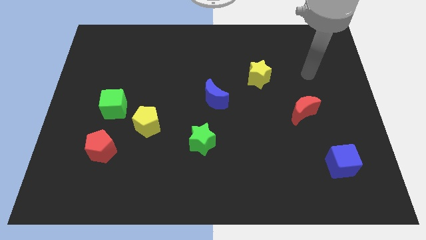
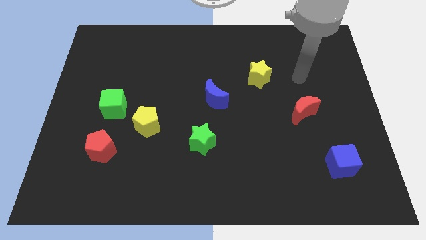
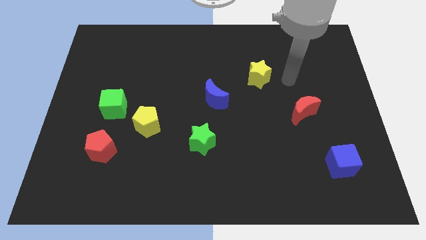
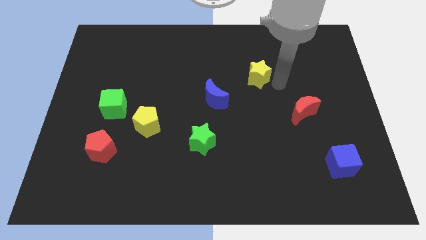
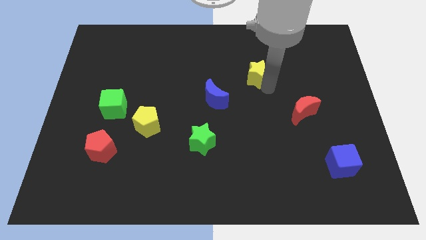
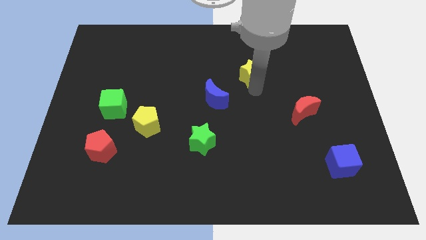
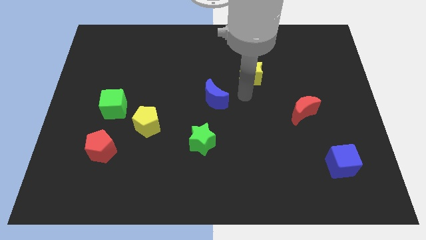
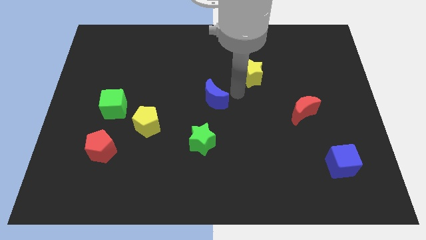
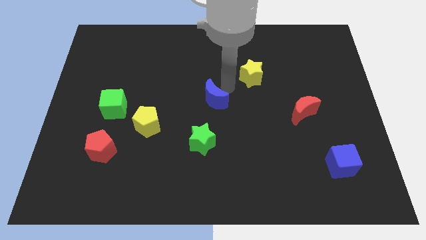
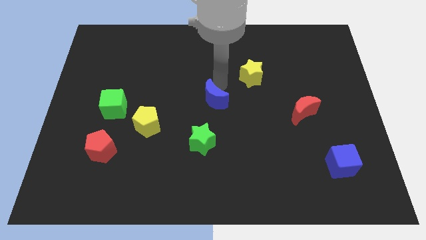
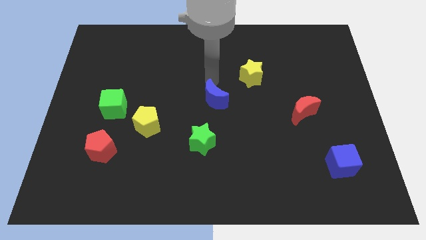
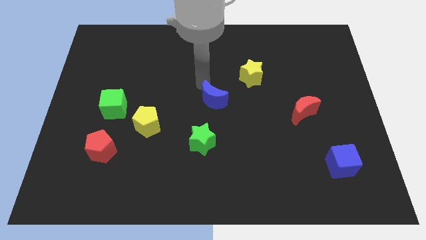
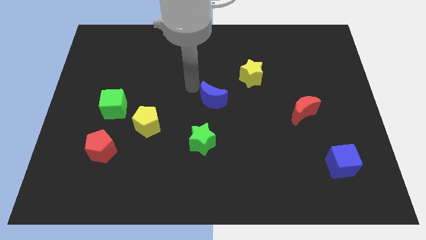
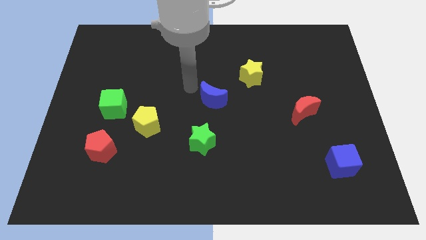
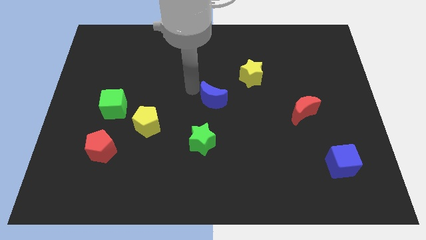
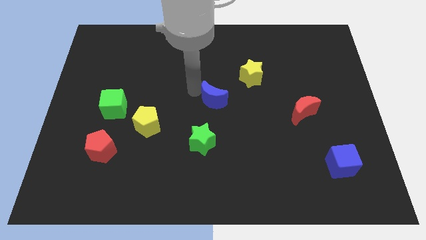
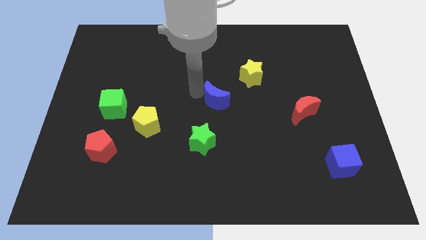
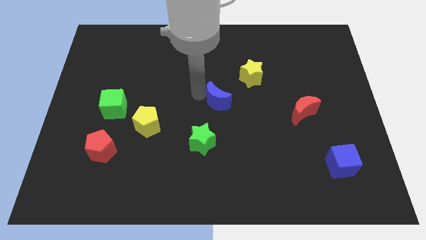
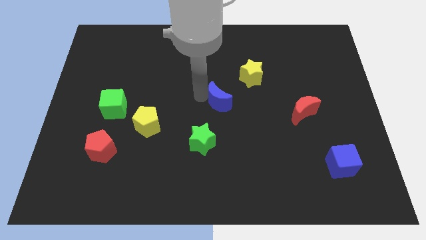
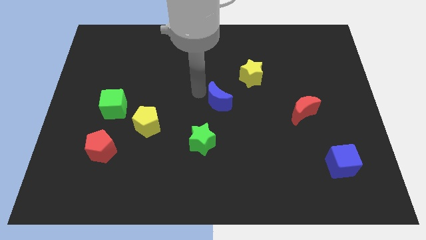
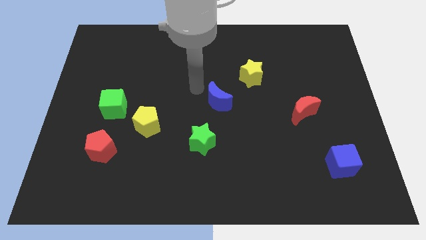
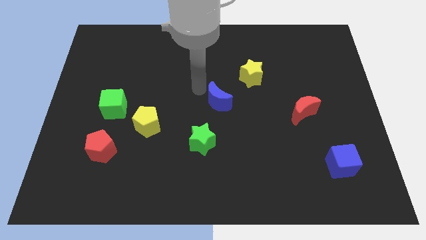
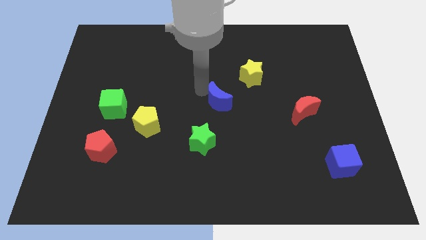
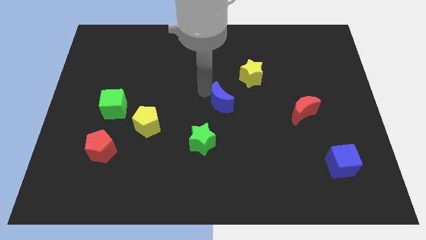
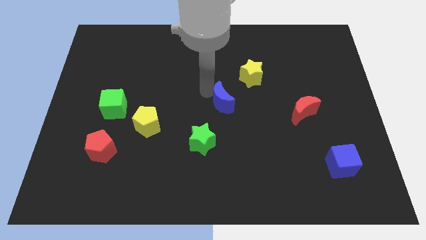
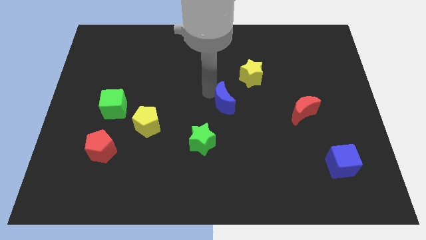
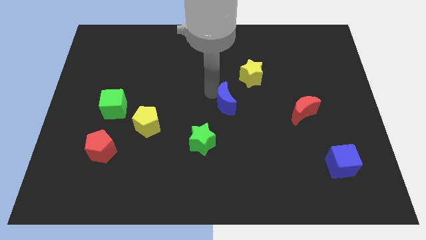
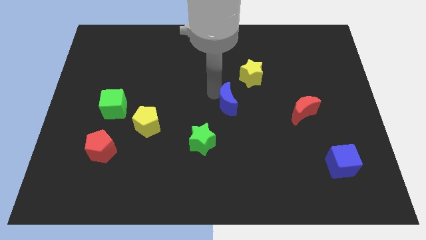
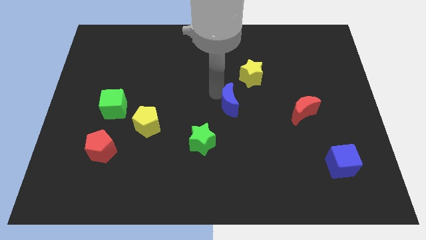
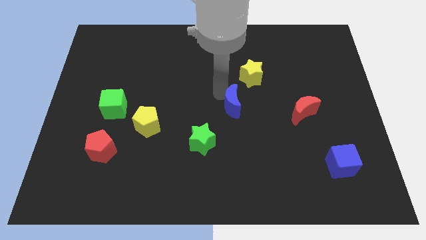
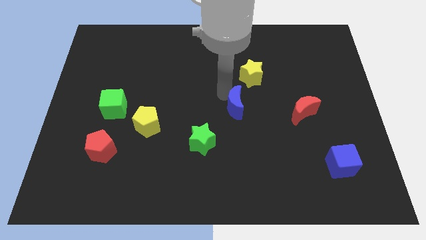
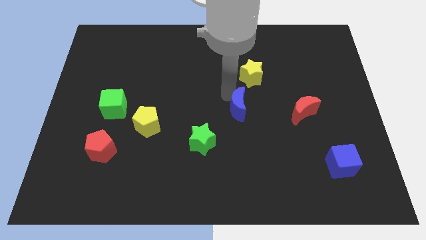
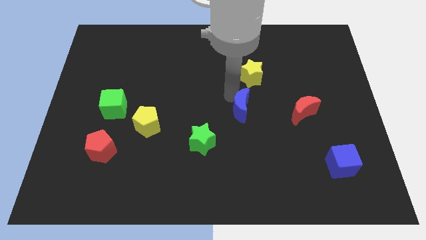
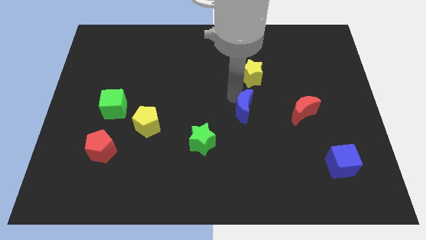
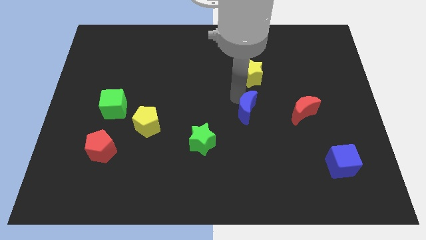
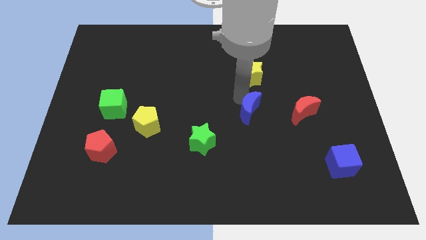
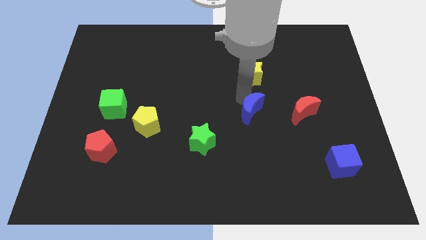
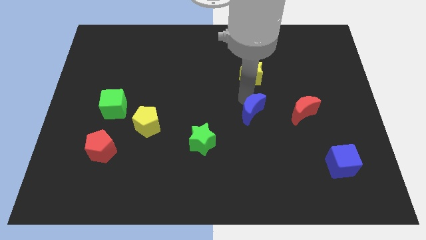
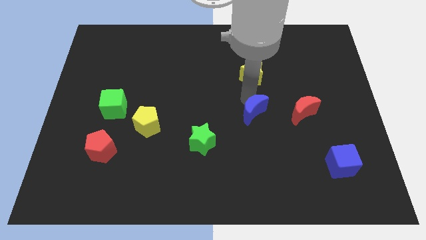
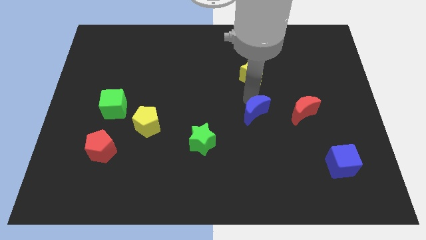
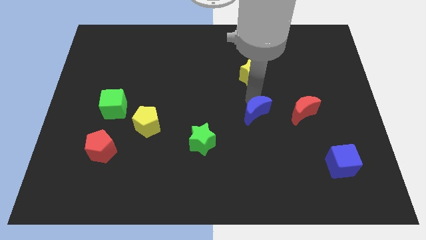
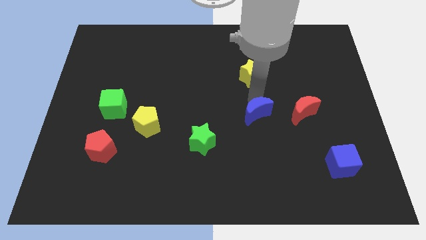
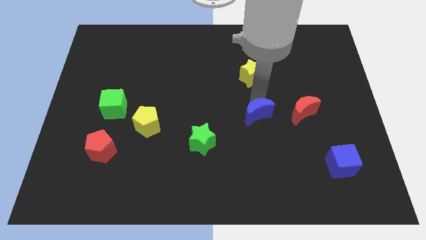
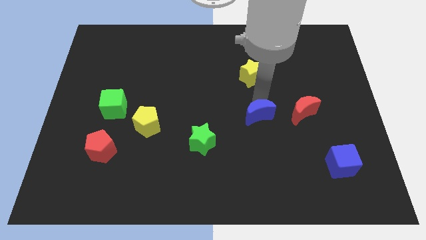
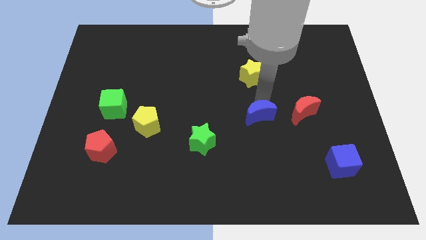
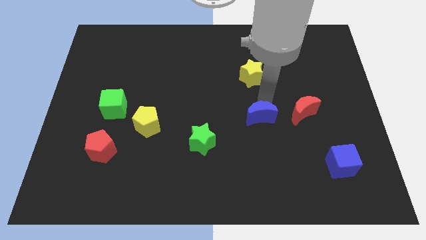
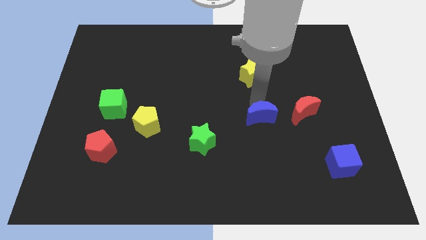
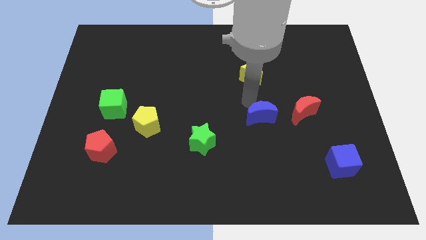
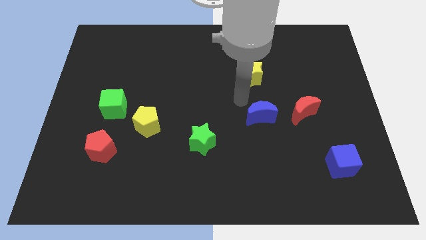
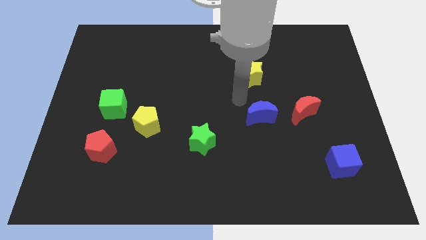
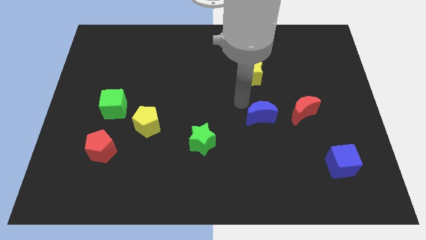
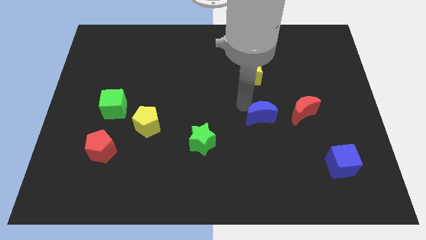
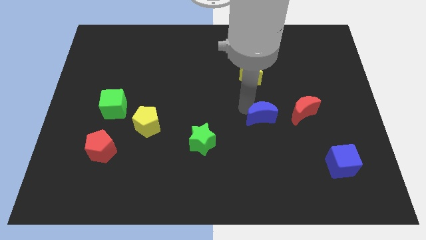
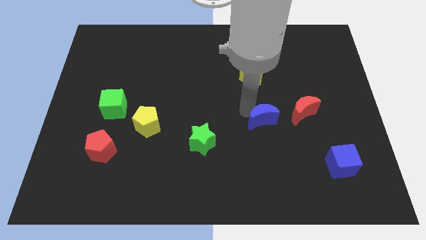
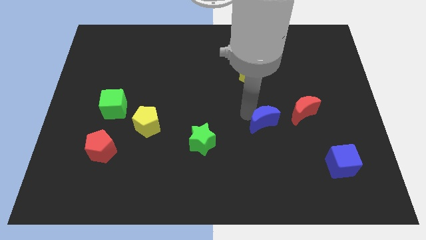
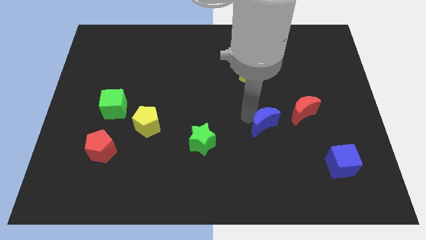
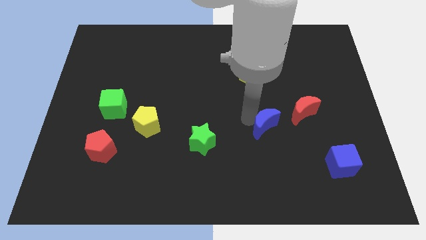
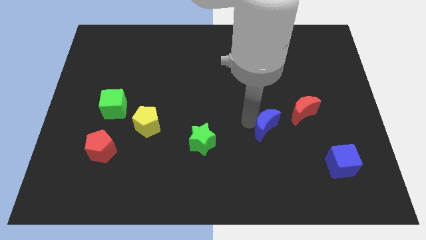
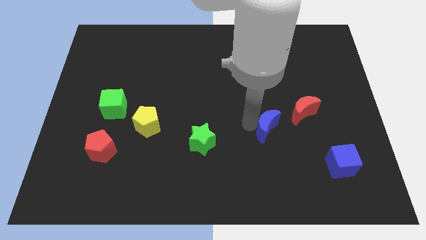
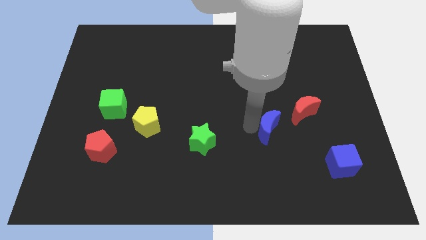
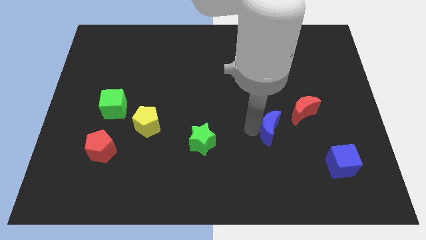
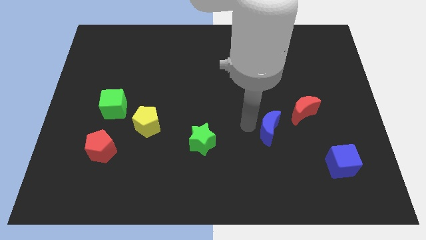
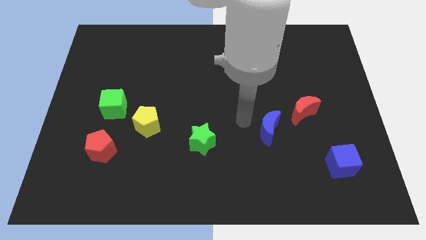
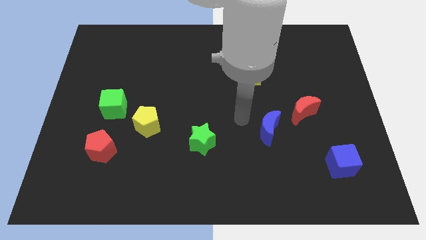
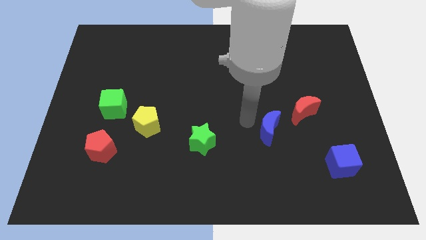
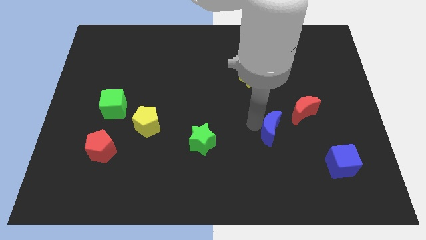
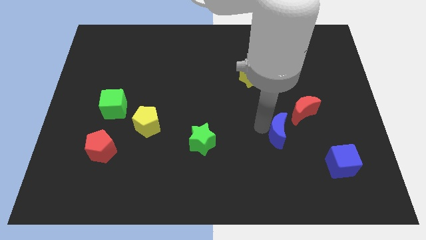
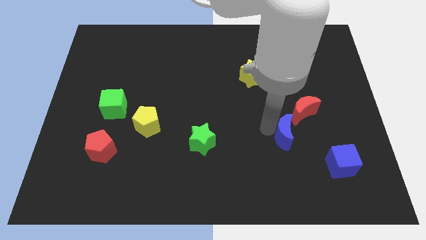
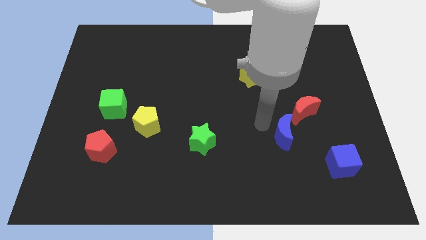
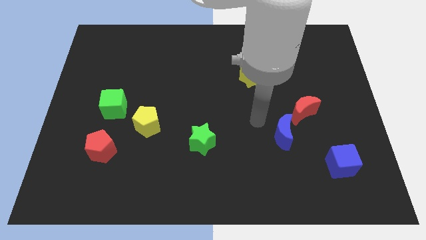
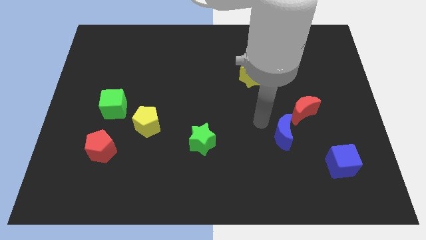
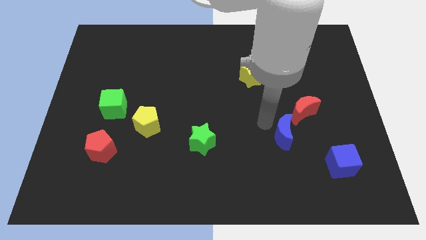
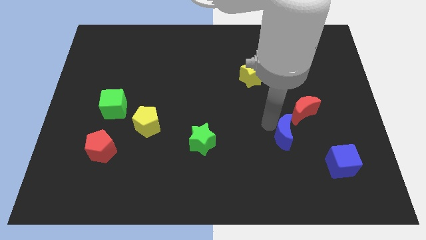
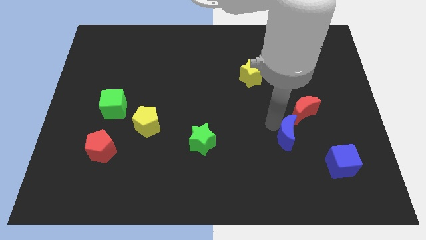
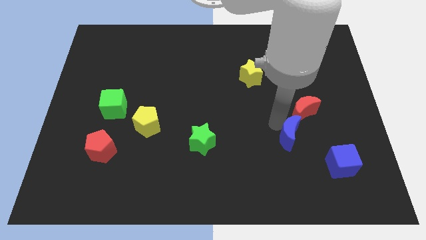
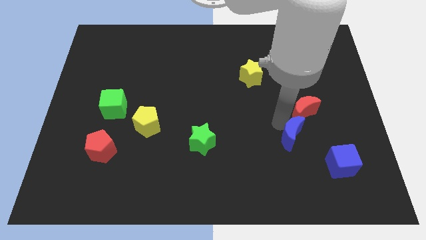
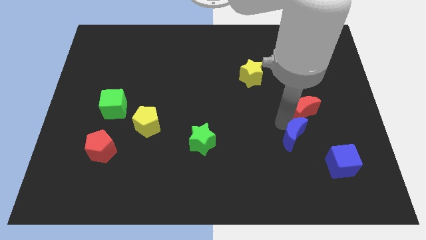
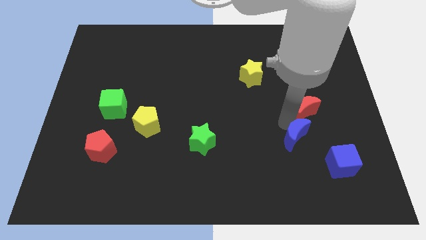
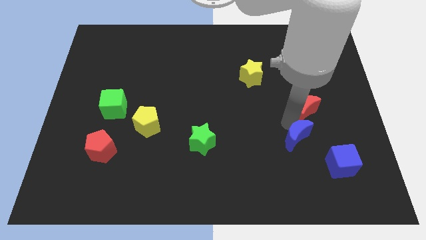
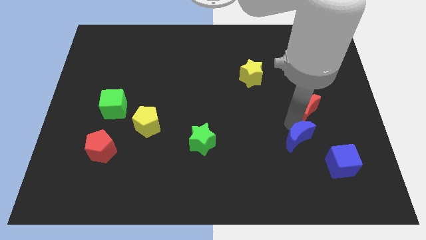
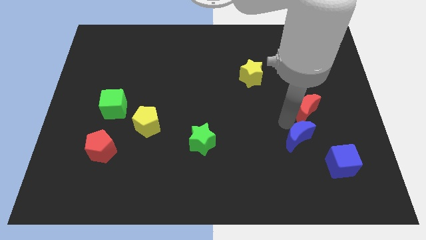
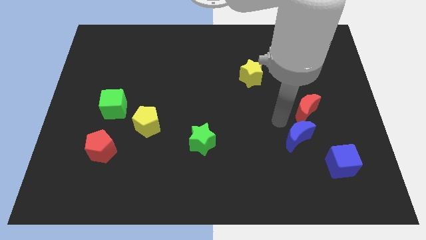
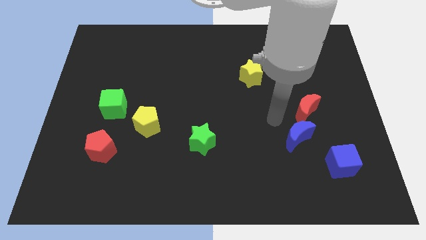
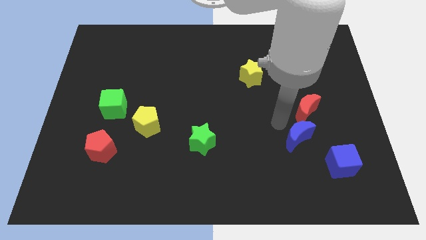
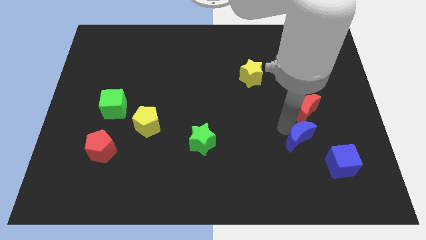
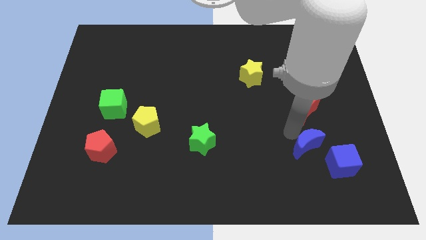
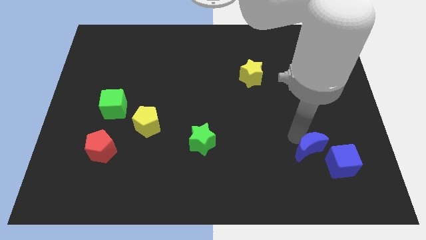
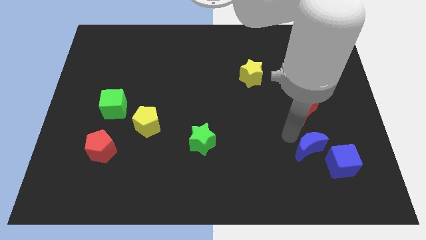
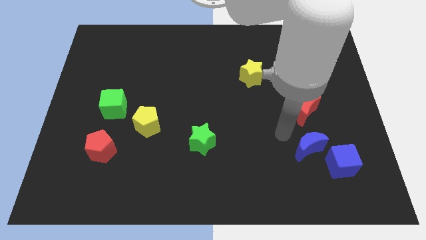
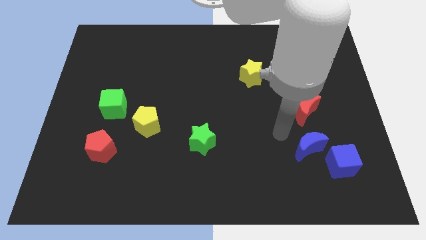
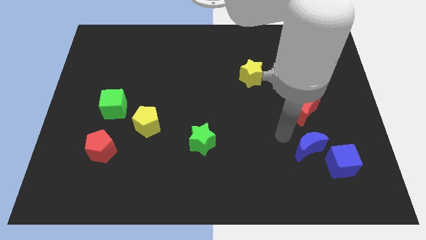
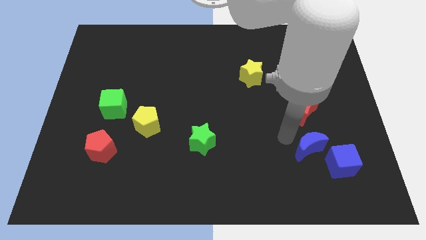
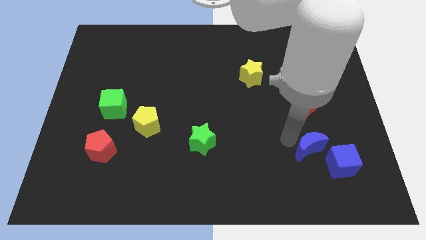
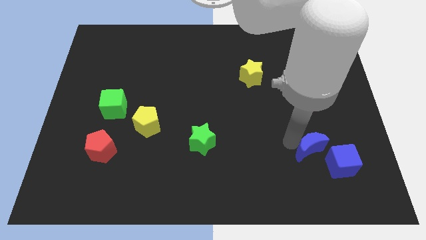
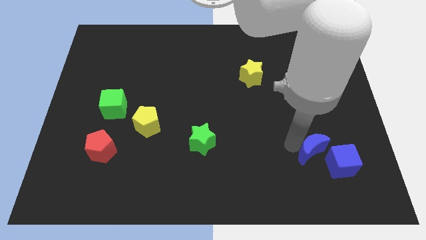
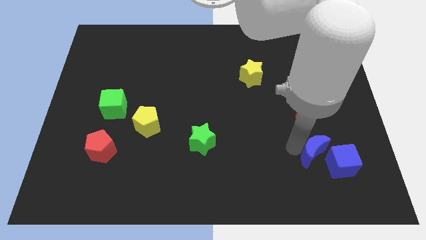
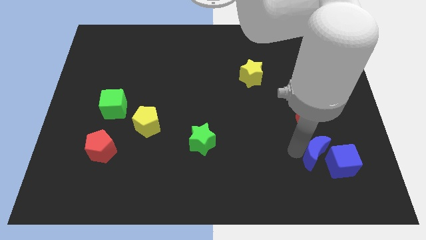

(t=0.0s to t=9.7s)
put the blue moon close to the blue cube
